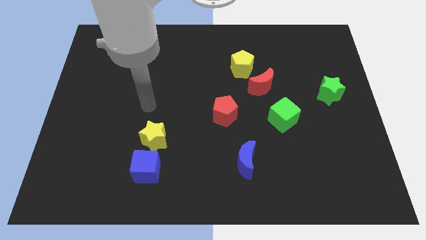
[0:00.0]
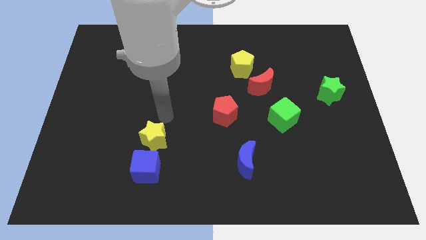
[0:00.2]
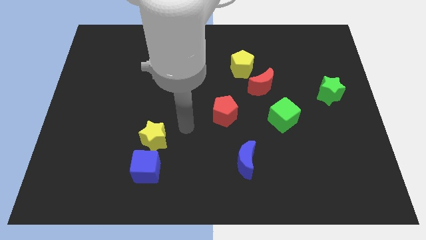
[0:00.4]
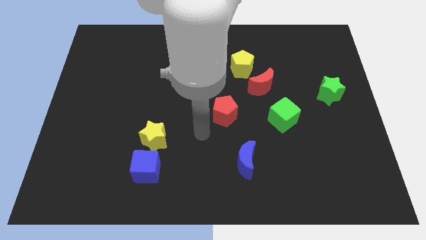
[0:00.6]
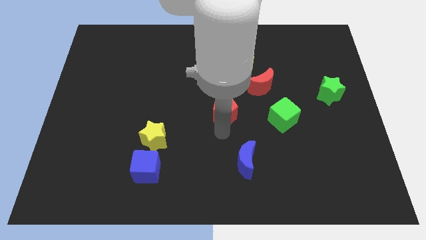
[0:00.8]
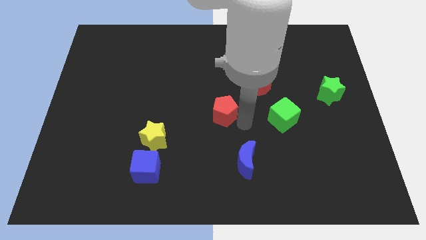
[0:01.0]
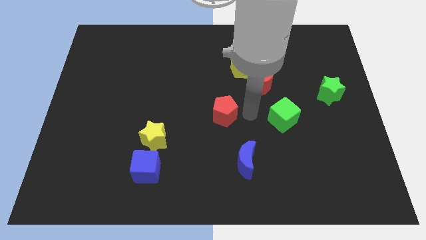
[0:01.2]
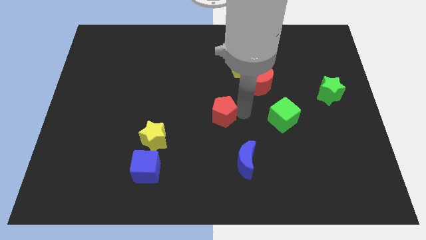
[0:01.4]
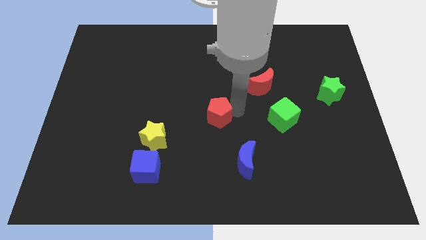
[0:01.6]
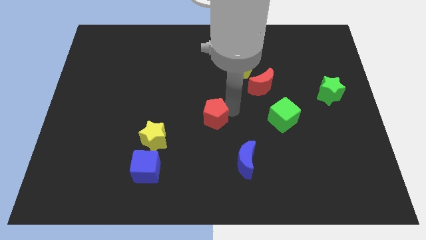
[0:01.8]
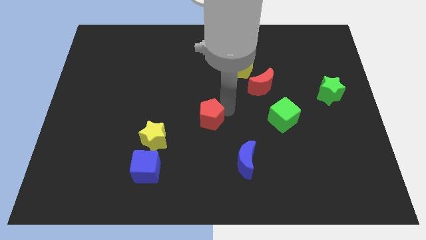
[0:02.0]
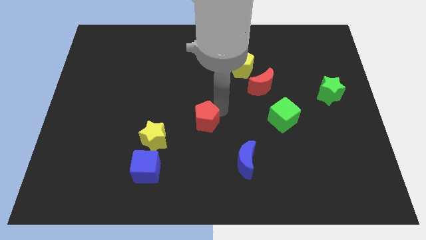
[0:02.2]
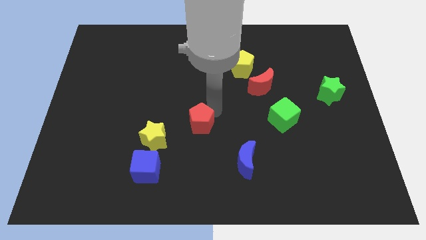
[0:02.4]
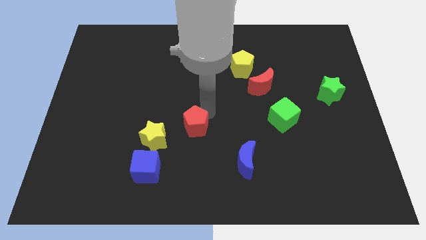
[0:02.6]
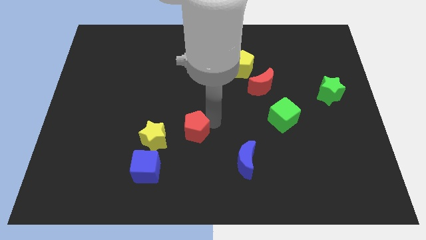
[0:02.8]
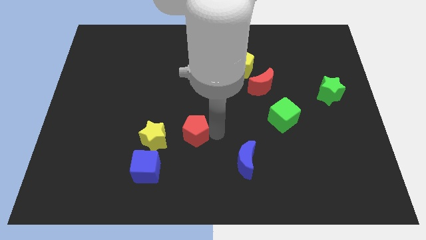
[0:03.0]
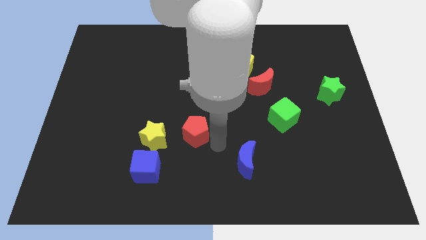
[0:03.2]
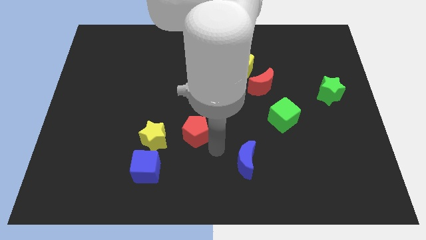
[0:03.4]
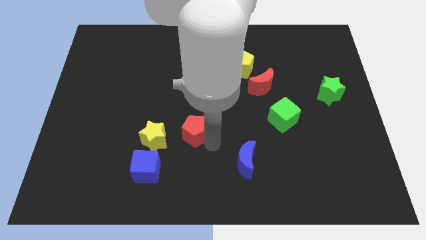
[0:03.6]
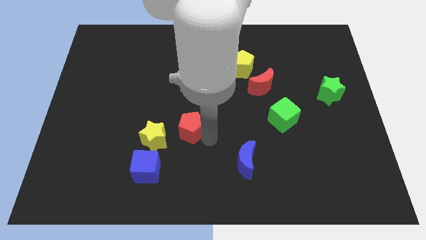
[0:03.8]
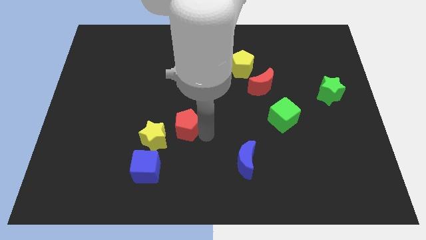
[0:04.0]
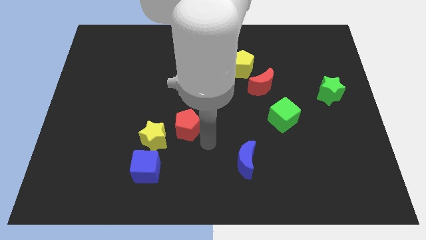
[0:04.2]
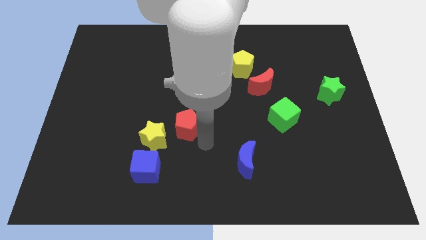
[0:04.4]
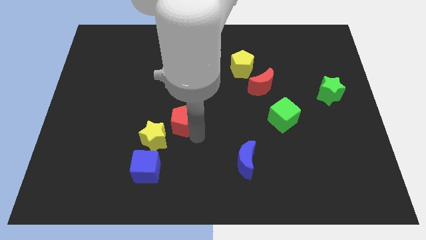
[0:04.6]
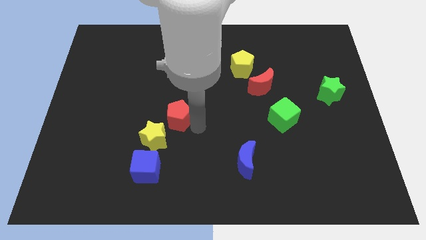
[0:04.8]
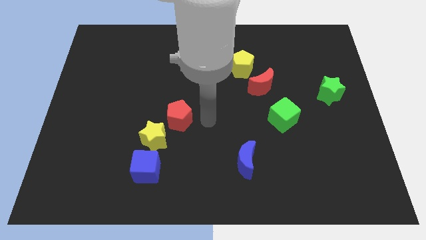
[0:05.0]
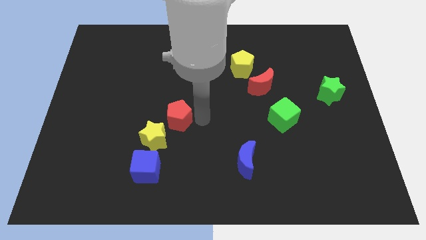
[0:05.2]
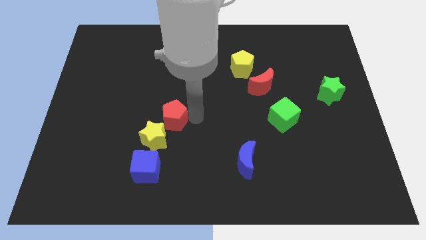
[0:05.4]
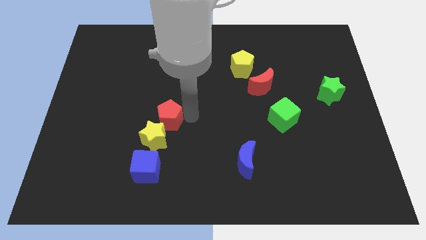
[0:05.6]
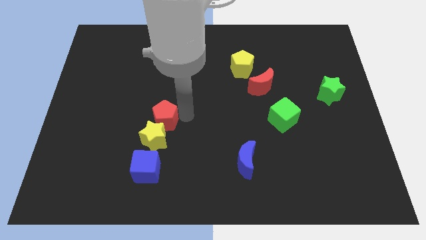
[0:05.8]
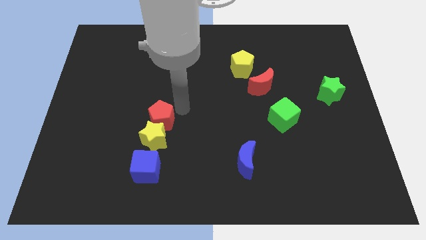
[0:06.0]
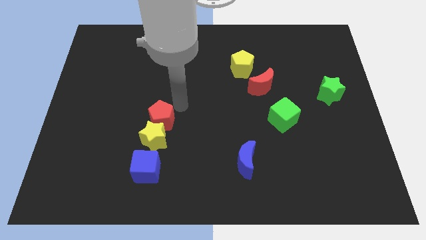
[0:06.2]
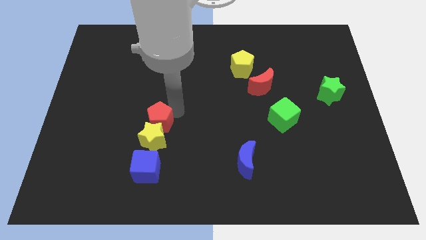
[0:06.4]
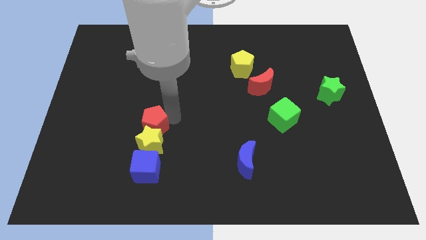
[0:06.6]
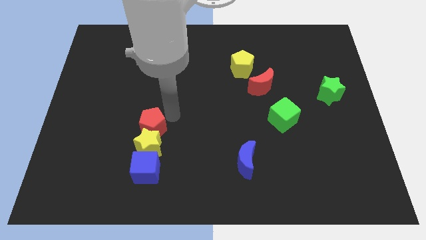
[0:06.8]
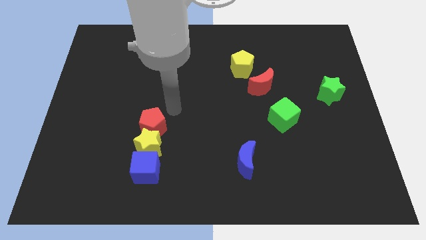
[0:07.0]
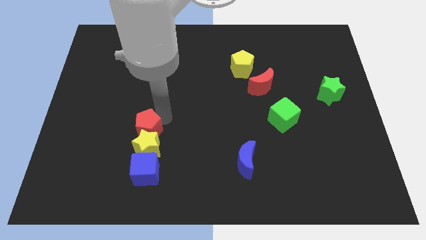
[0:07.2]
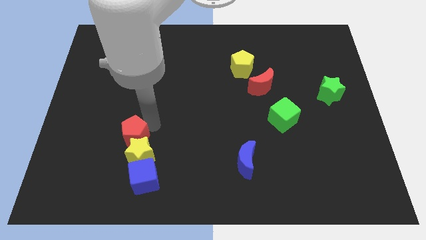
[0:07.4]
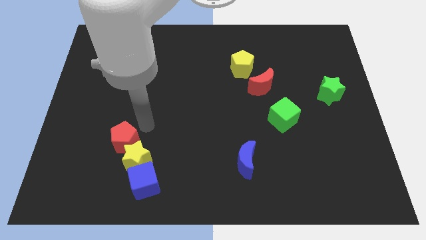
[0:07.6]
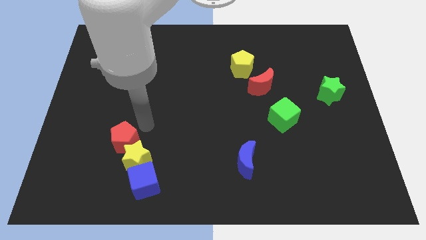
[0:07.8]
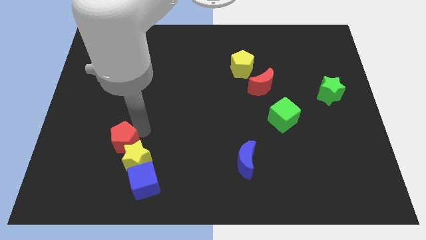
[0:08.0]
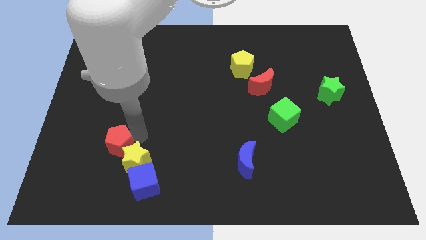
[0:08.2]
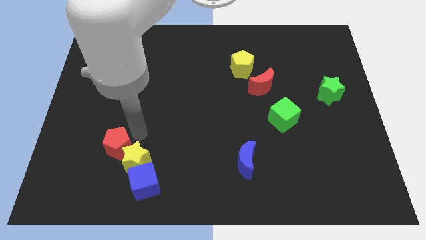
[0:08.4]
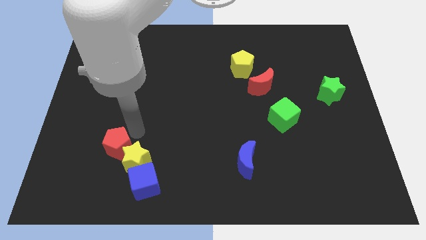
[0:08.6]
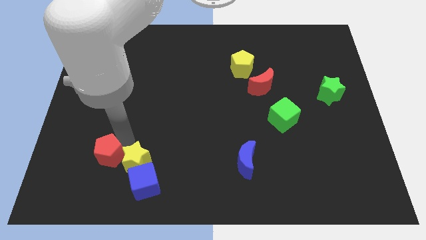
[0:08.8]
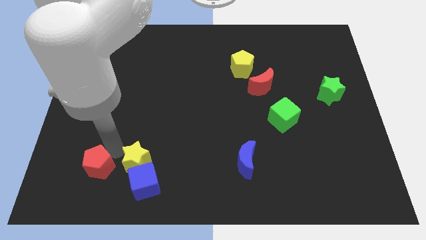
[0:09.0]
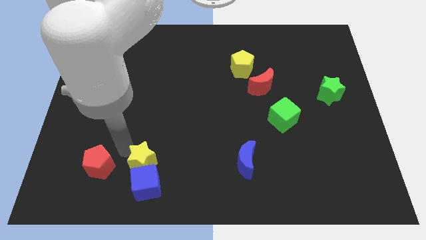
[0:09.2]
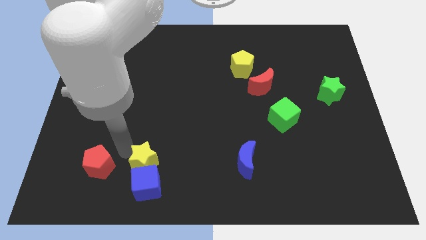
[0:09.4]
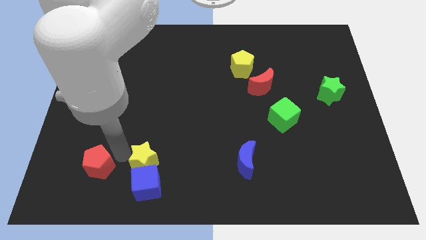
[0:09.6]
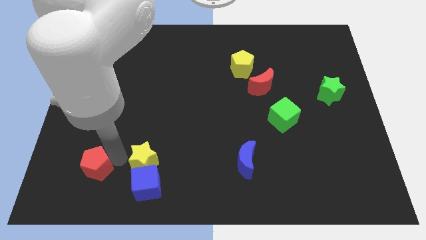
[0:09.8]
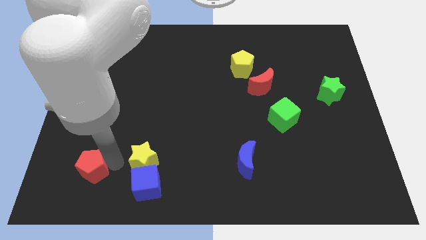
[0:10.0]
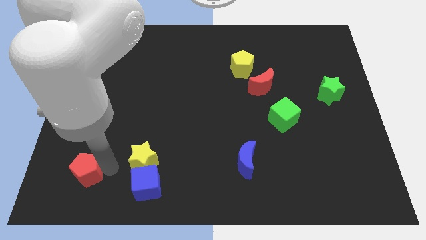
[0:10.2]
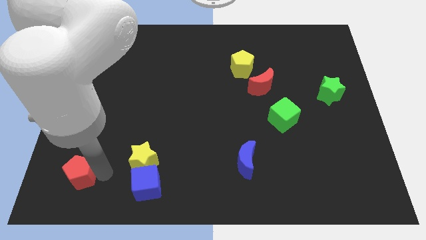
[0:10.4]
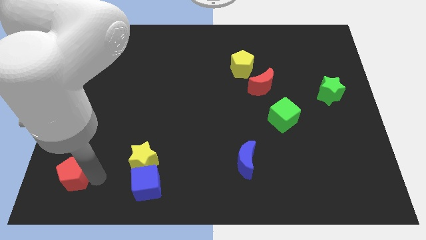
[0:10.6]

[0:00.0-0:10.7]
move the red pentagon to the bottom left

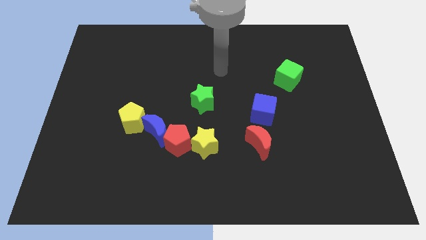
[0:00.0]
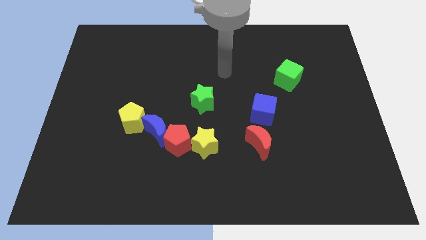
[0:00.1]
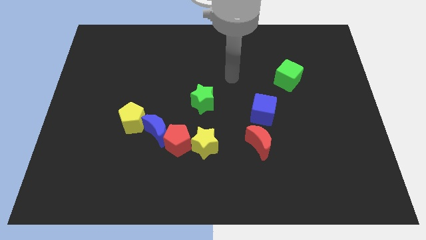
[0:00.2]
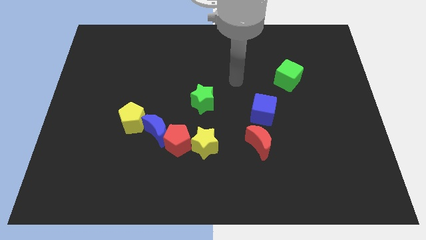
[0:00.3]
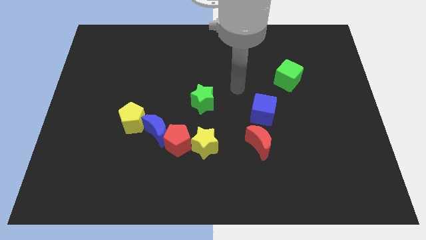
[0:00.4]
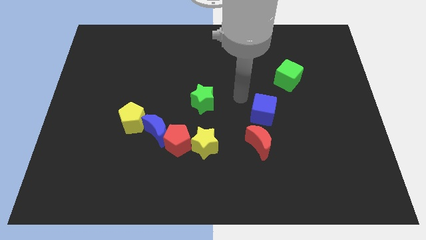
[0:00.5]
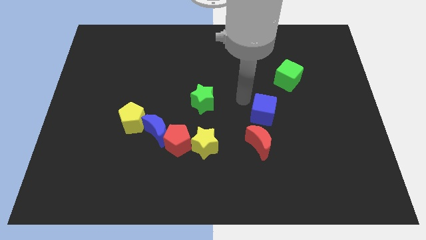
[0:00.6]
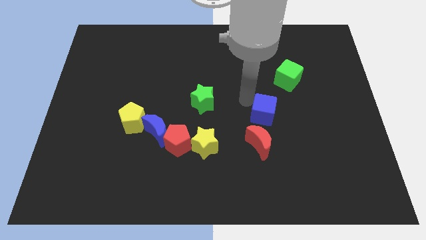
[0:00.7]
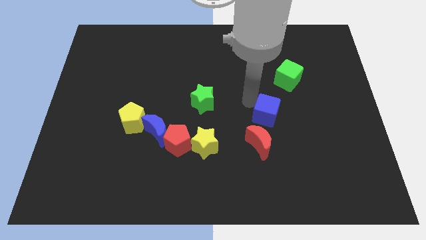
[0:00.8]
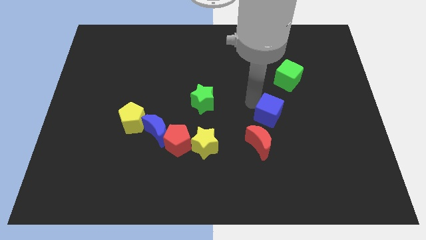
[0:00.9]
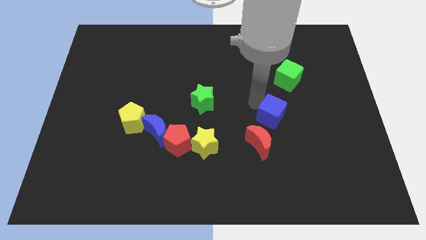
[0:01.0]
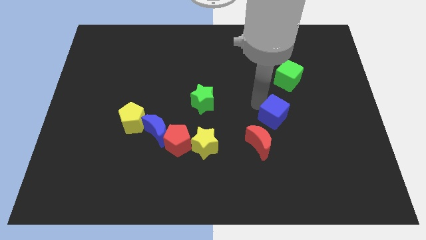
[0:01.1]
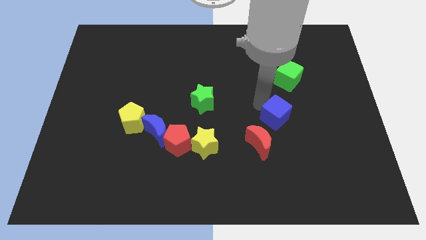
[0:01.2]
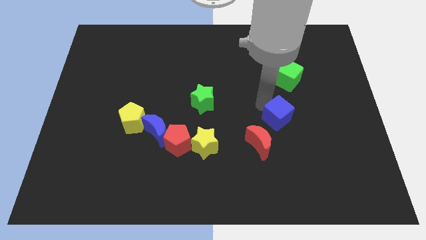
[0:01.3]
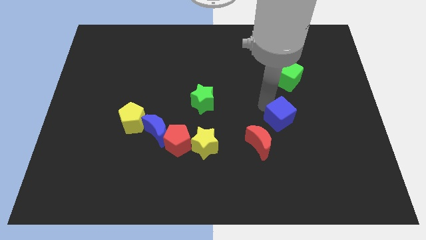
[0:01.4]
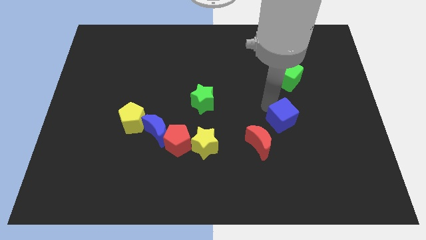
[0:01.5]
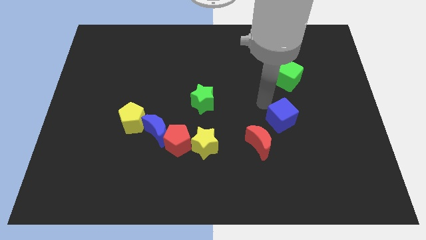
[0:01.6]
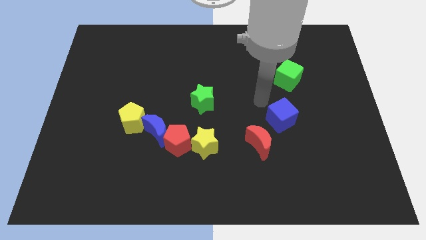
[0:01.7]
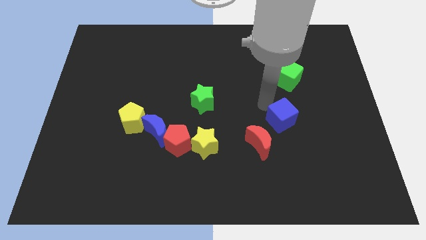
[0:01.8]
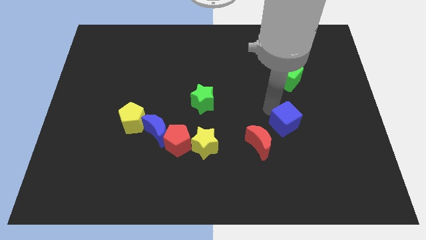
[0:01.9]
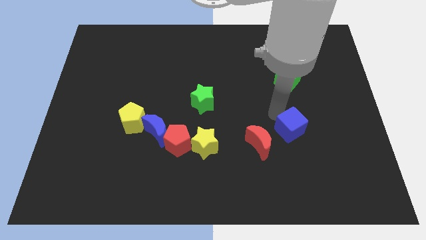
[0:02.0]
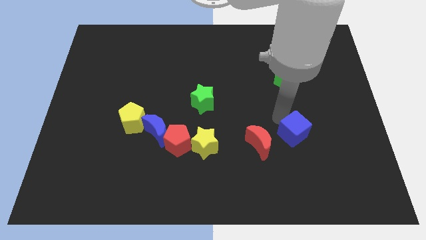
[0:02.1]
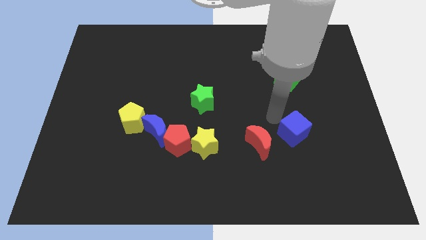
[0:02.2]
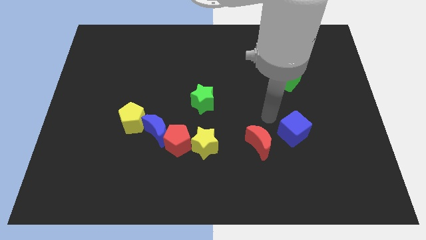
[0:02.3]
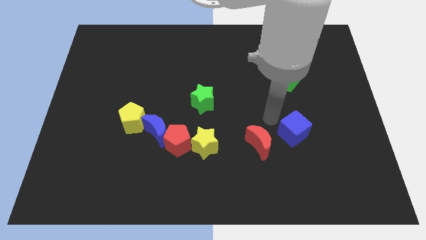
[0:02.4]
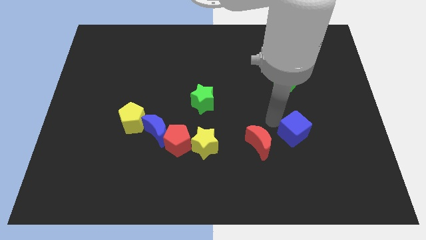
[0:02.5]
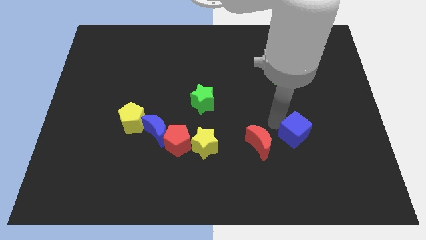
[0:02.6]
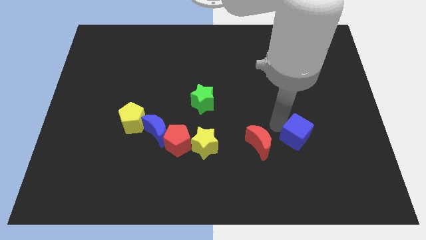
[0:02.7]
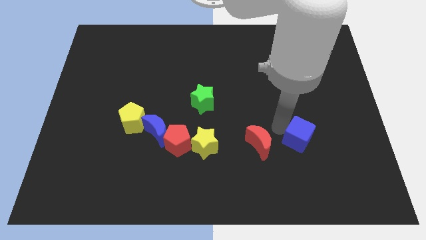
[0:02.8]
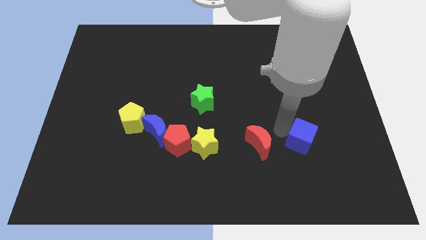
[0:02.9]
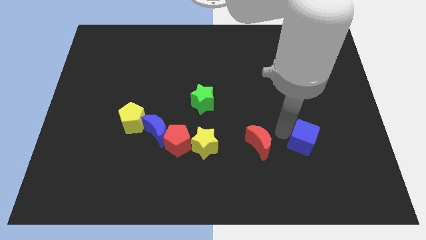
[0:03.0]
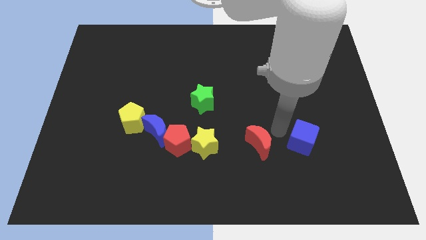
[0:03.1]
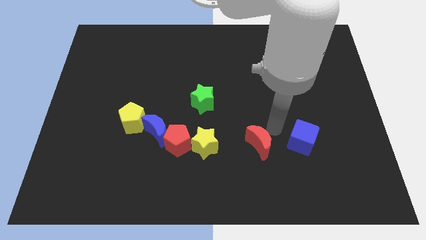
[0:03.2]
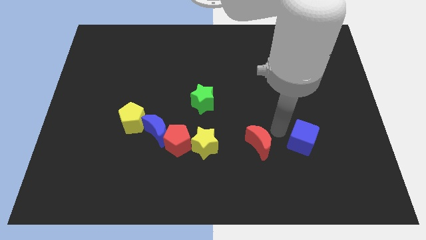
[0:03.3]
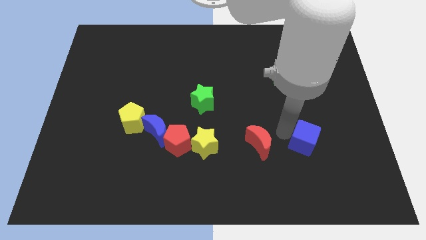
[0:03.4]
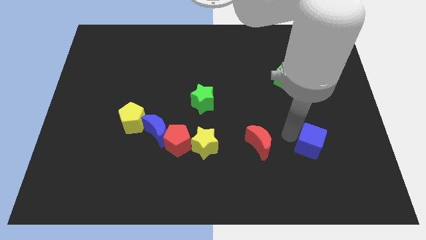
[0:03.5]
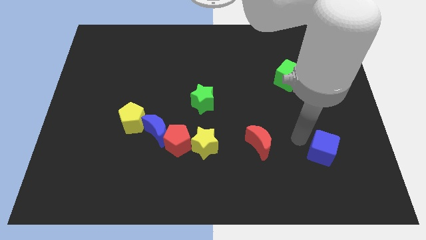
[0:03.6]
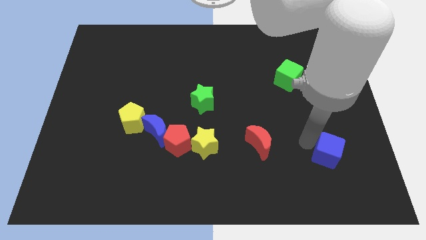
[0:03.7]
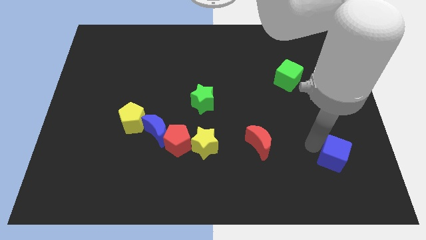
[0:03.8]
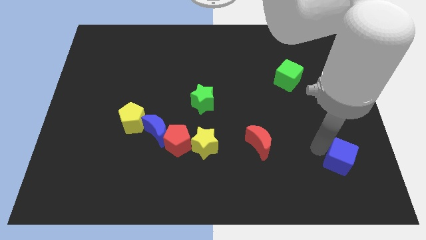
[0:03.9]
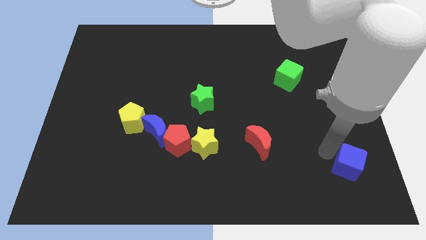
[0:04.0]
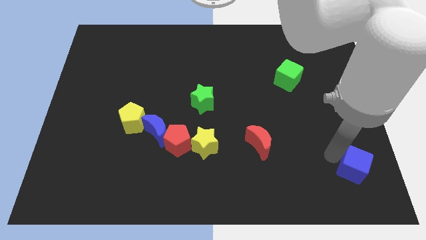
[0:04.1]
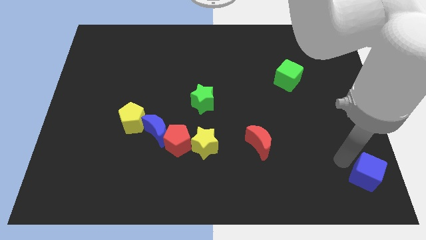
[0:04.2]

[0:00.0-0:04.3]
put the blue cube to the bottom right corner
